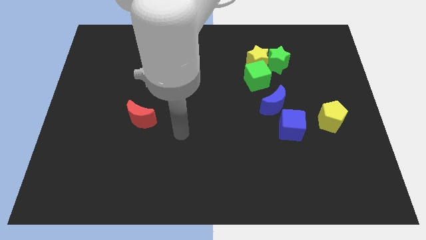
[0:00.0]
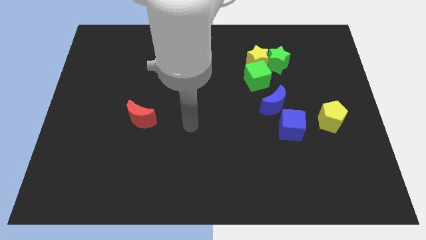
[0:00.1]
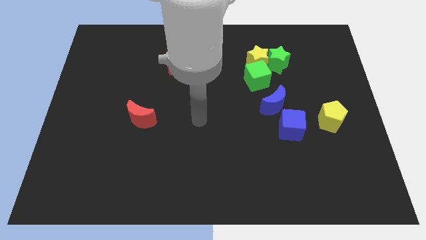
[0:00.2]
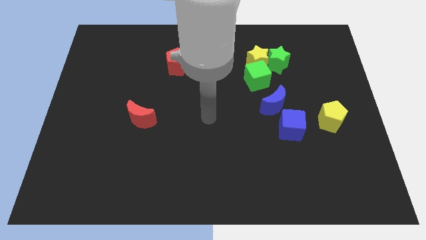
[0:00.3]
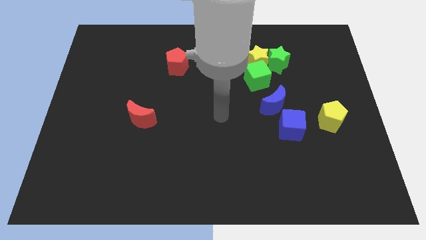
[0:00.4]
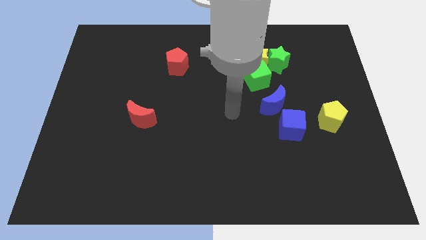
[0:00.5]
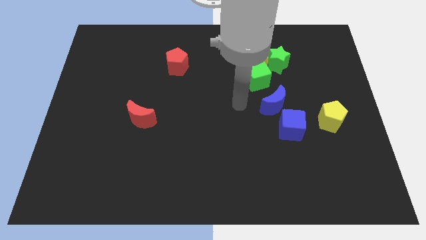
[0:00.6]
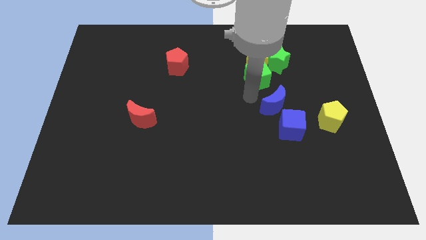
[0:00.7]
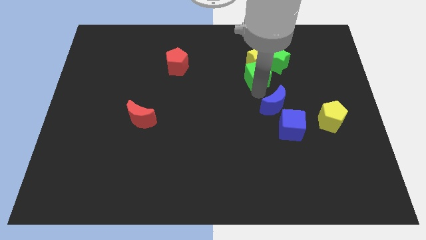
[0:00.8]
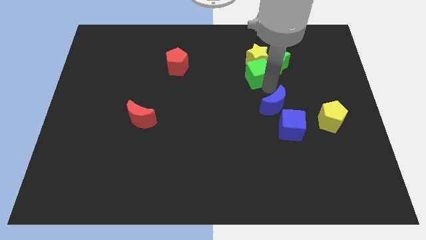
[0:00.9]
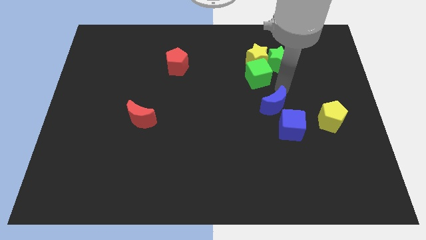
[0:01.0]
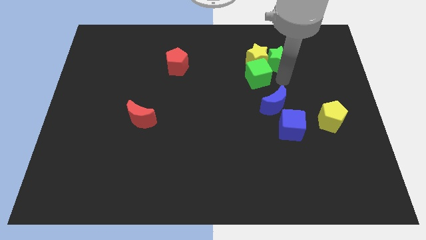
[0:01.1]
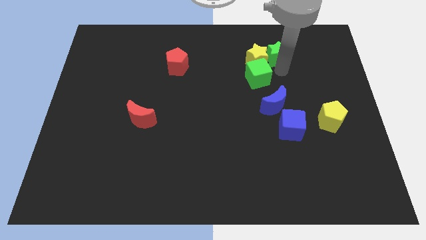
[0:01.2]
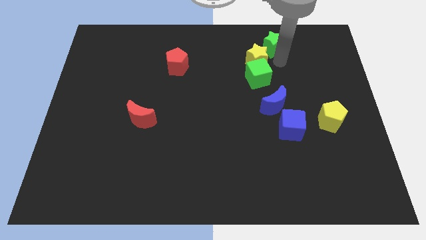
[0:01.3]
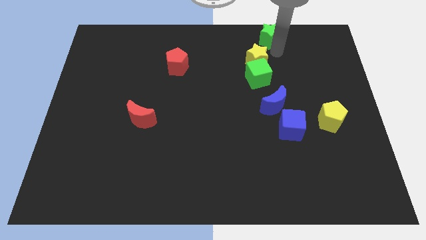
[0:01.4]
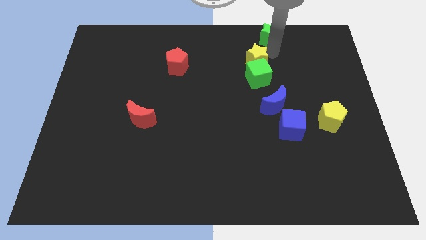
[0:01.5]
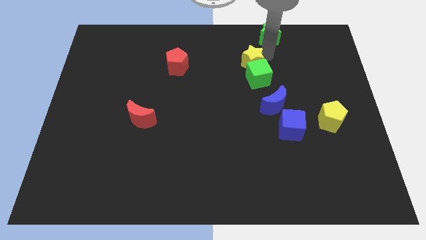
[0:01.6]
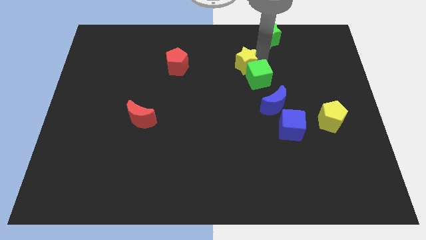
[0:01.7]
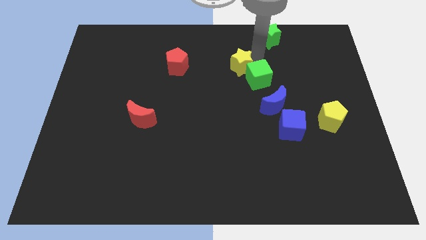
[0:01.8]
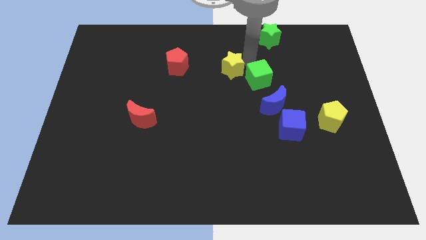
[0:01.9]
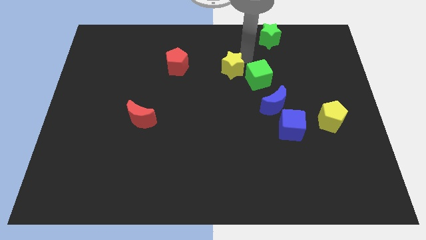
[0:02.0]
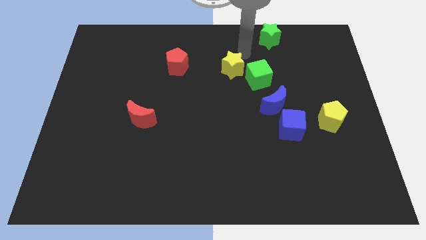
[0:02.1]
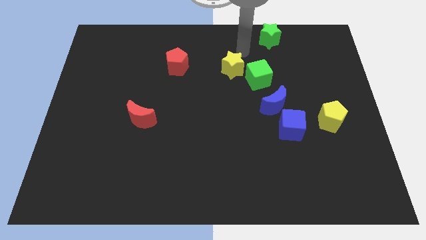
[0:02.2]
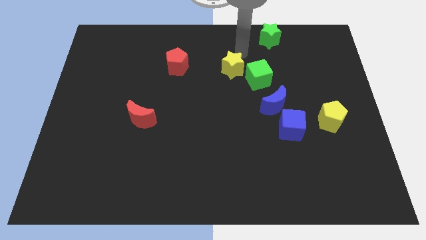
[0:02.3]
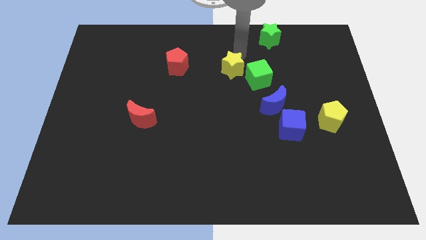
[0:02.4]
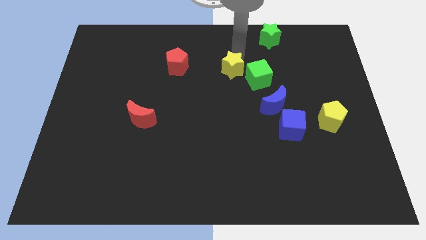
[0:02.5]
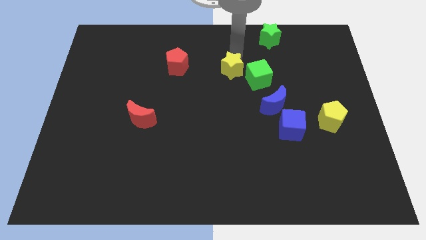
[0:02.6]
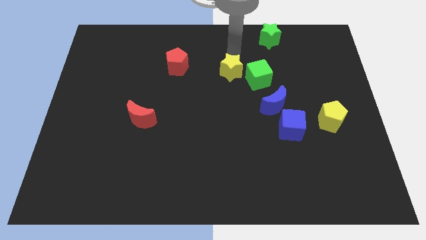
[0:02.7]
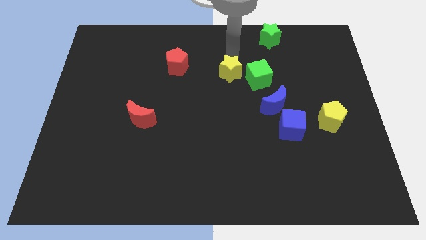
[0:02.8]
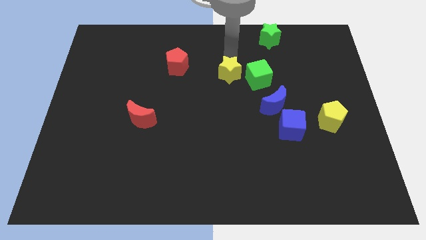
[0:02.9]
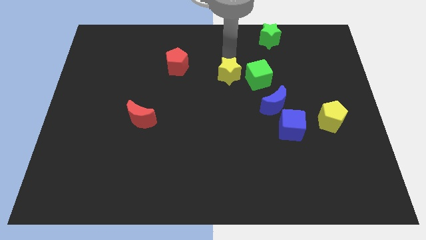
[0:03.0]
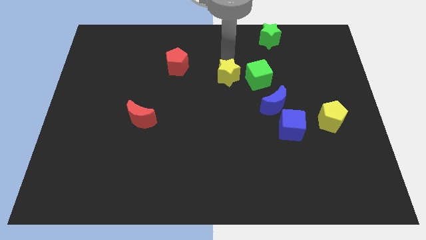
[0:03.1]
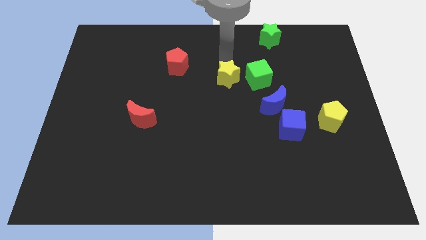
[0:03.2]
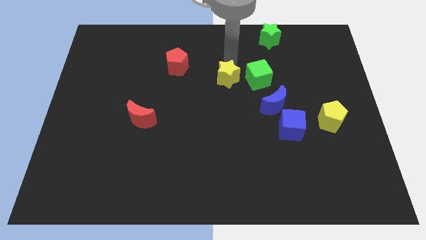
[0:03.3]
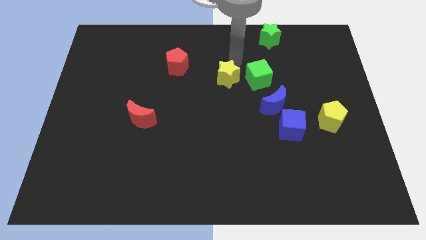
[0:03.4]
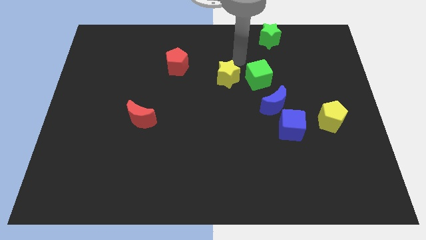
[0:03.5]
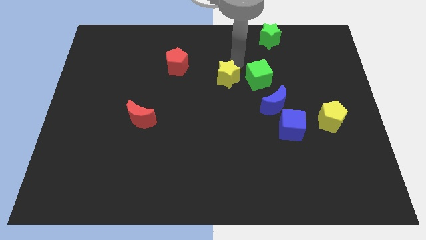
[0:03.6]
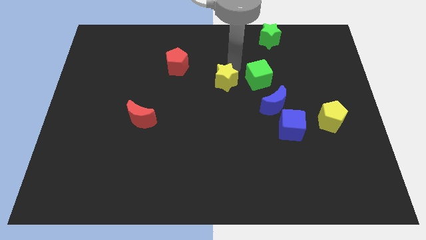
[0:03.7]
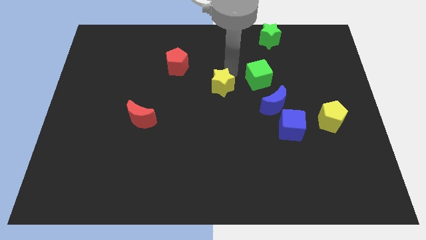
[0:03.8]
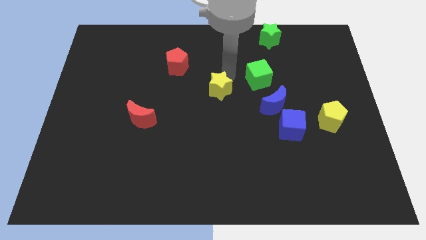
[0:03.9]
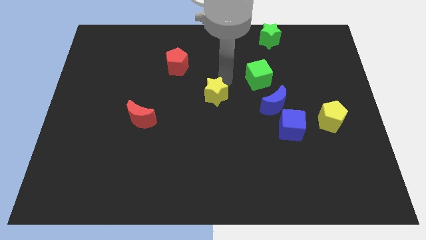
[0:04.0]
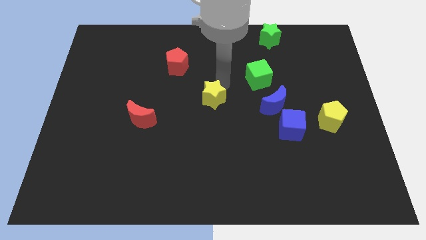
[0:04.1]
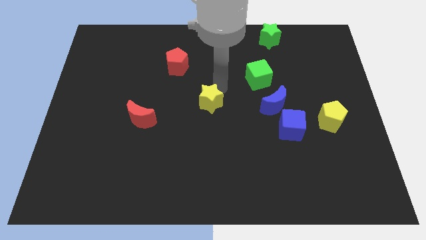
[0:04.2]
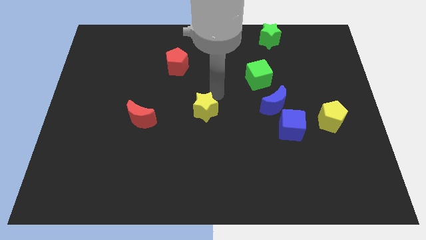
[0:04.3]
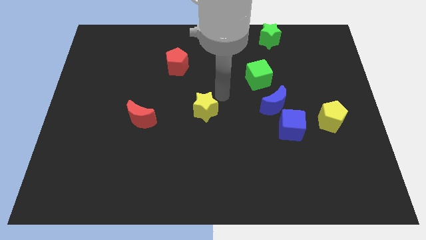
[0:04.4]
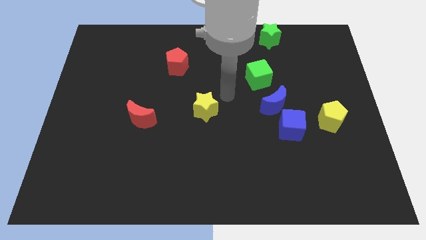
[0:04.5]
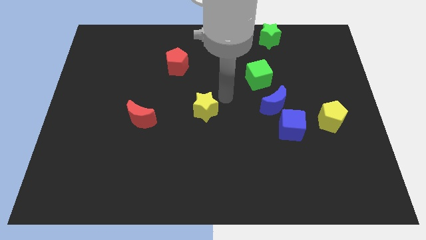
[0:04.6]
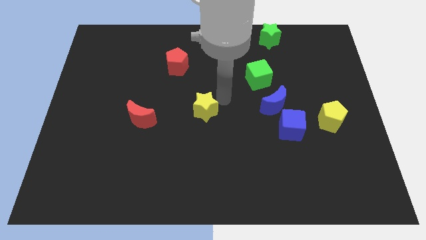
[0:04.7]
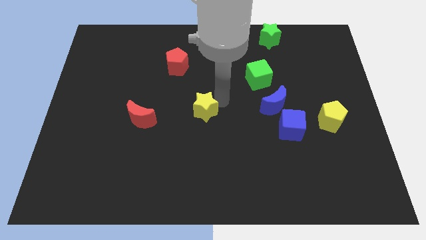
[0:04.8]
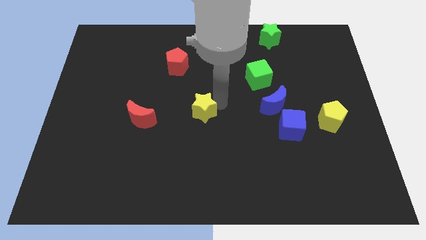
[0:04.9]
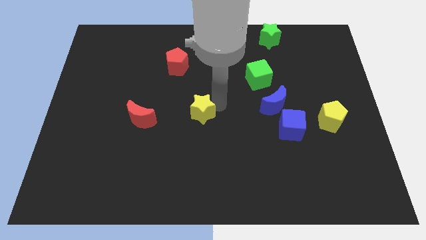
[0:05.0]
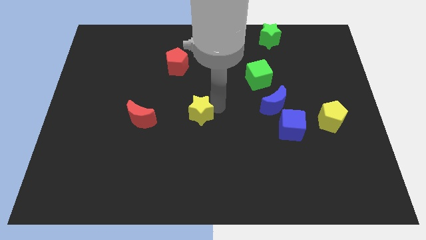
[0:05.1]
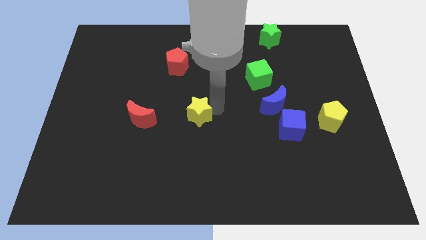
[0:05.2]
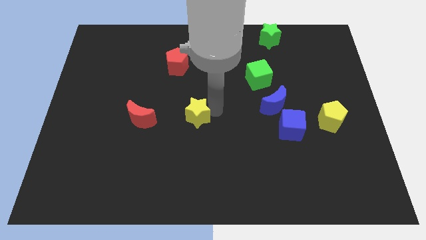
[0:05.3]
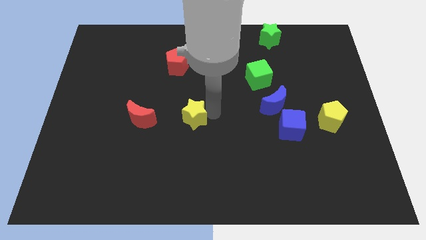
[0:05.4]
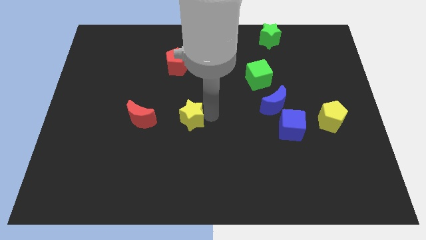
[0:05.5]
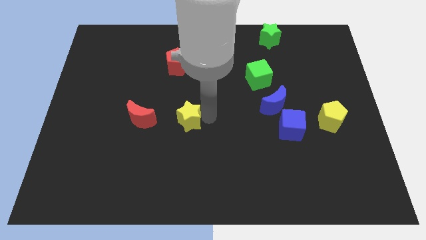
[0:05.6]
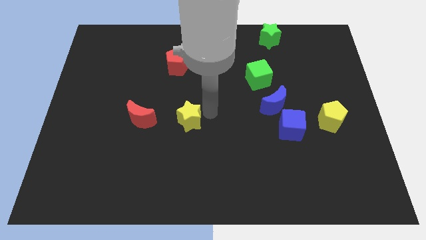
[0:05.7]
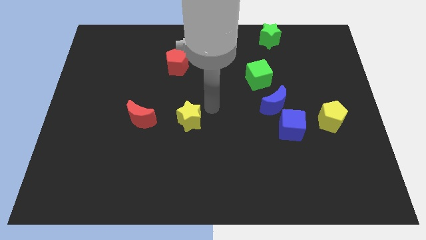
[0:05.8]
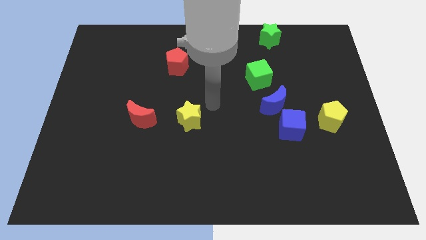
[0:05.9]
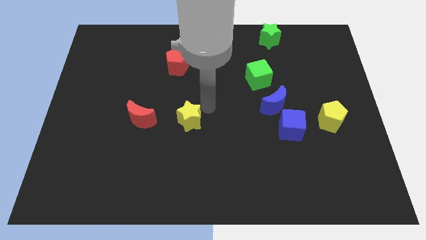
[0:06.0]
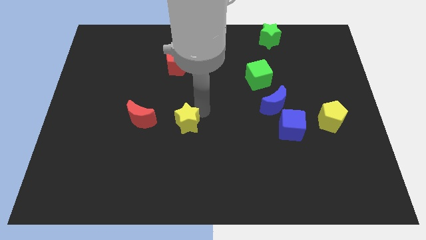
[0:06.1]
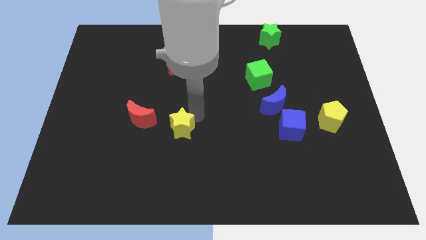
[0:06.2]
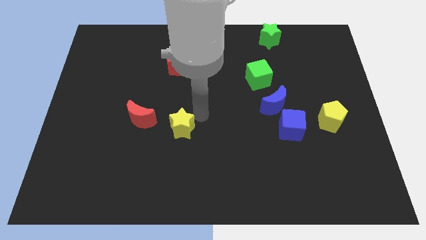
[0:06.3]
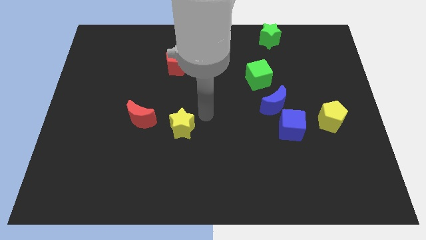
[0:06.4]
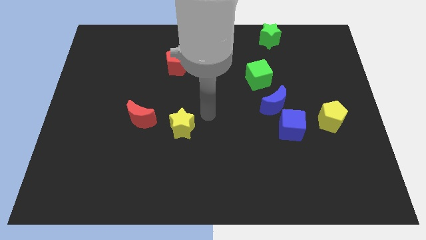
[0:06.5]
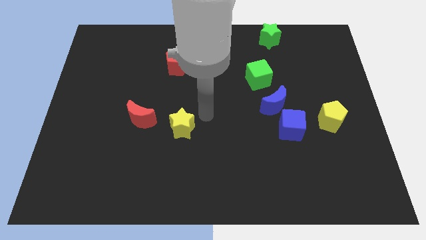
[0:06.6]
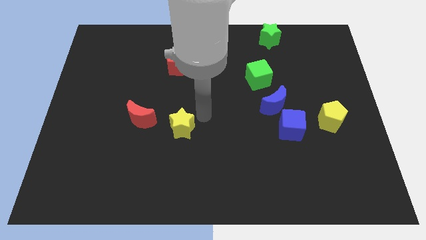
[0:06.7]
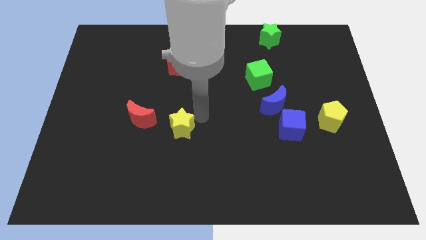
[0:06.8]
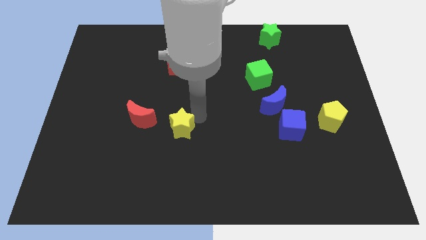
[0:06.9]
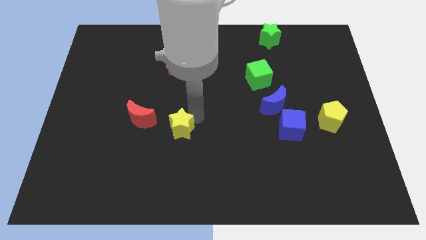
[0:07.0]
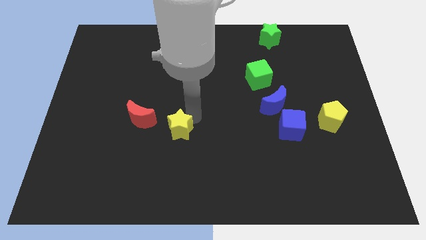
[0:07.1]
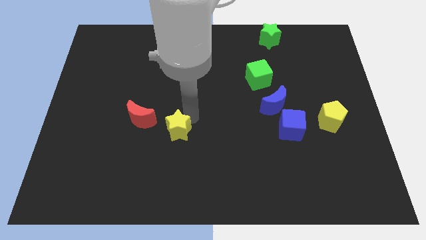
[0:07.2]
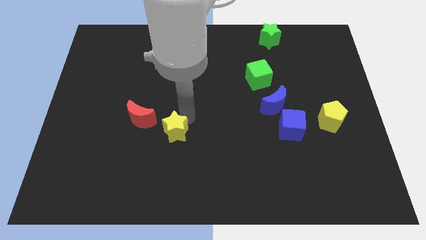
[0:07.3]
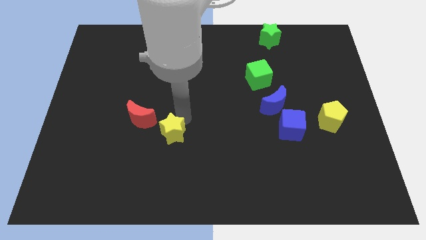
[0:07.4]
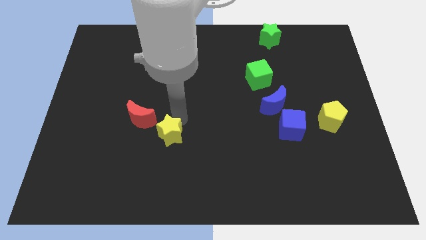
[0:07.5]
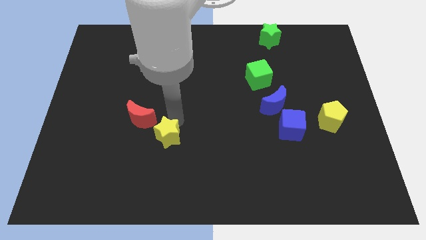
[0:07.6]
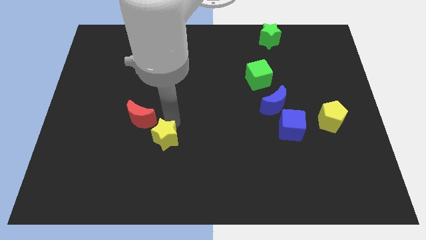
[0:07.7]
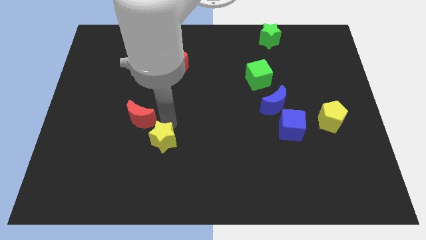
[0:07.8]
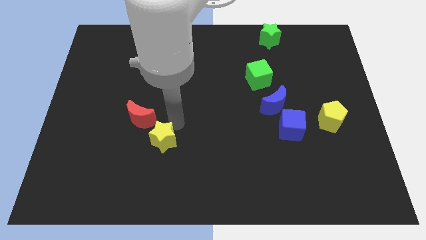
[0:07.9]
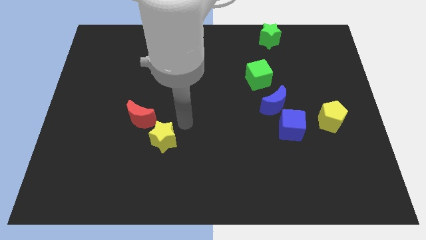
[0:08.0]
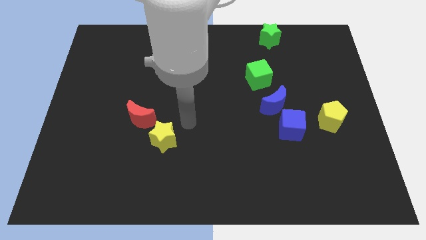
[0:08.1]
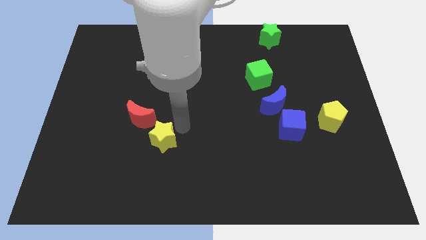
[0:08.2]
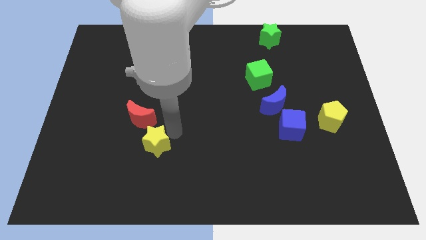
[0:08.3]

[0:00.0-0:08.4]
push the yellow star to the bottom side of the red moon
